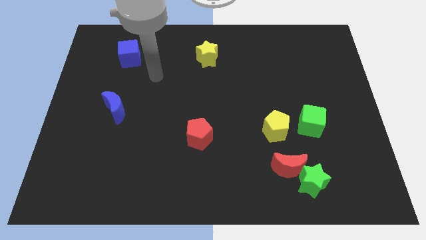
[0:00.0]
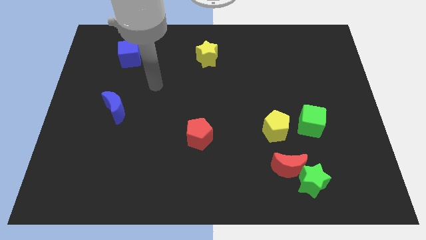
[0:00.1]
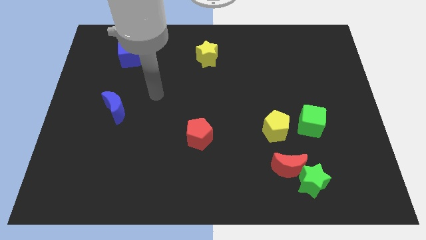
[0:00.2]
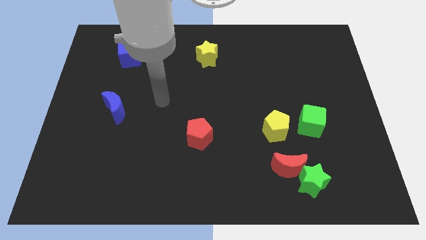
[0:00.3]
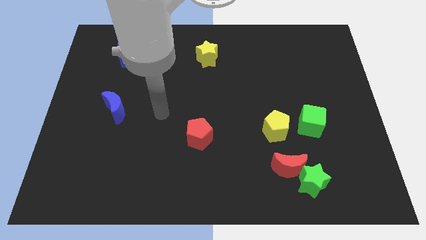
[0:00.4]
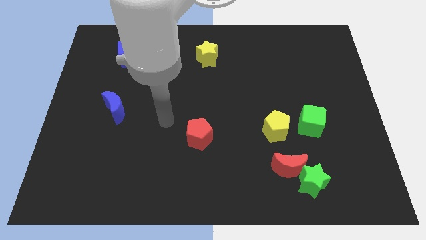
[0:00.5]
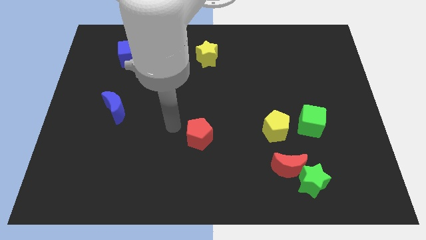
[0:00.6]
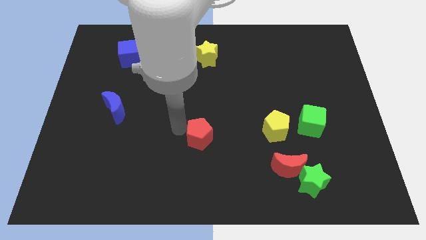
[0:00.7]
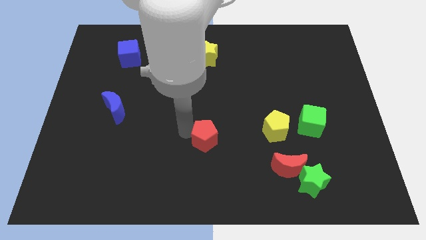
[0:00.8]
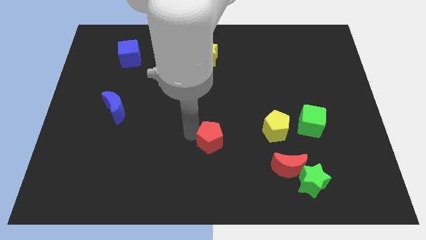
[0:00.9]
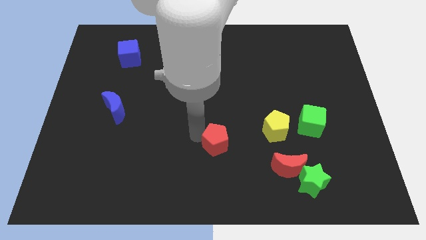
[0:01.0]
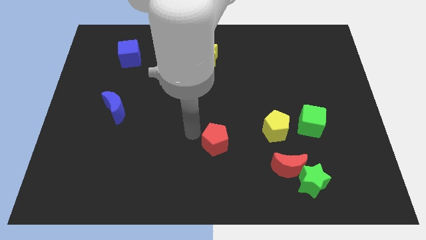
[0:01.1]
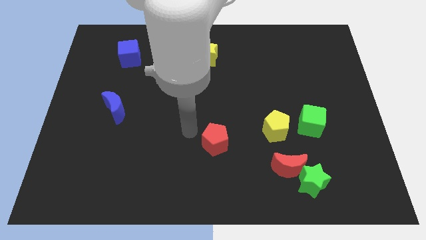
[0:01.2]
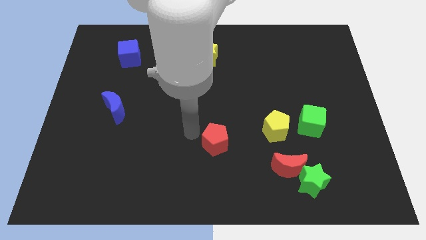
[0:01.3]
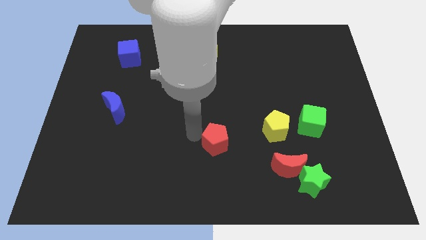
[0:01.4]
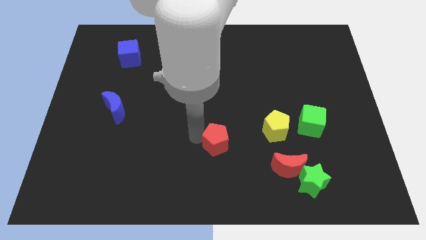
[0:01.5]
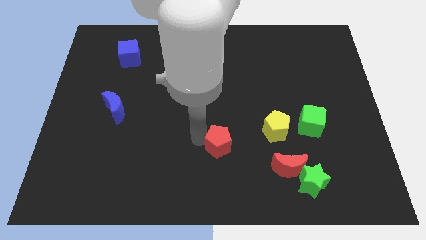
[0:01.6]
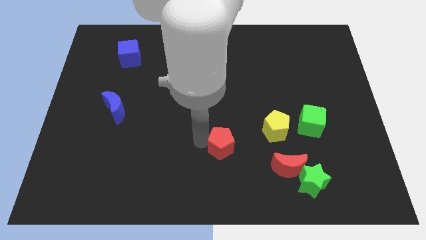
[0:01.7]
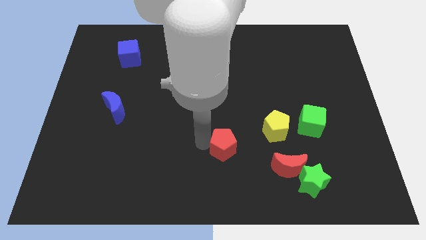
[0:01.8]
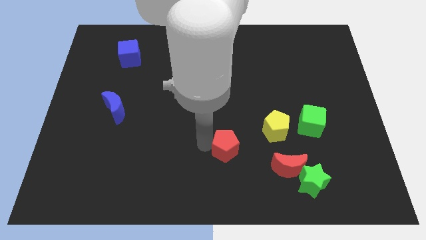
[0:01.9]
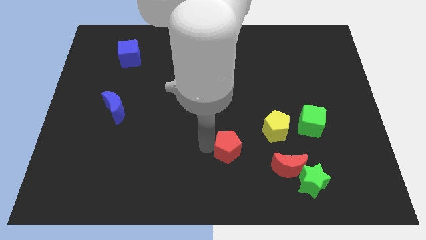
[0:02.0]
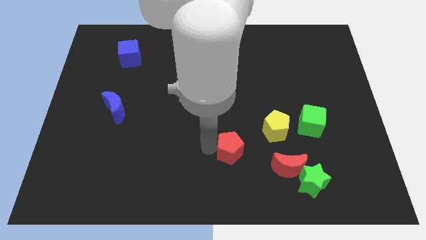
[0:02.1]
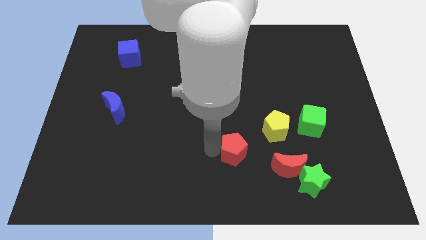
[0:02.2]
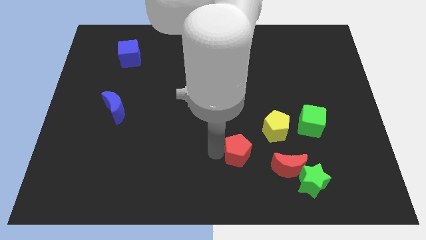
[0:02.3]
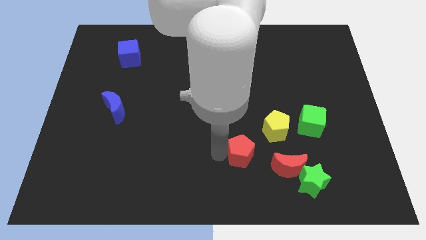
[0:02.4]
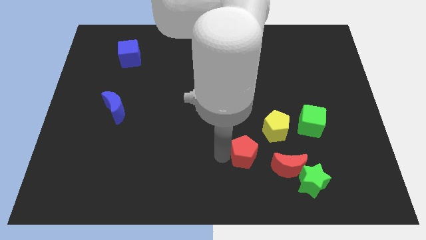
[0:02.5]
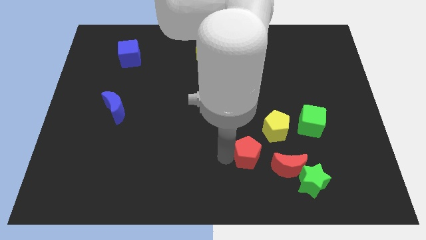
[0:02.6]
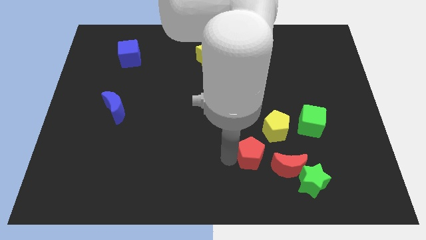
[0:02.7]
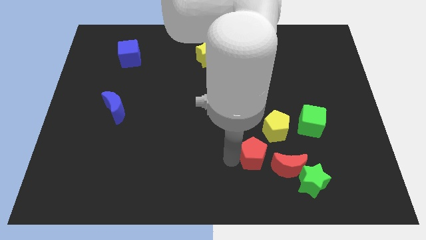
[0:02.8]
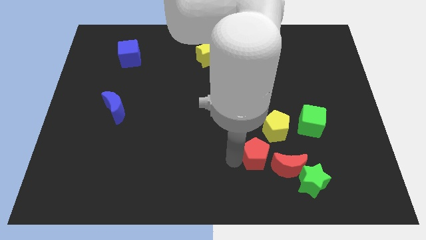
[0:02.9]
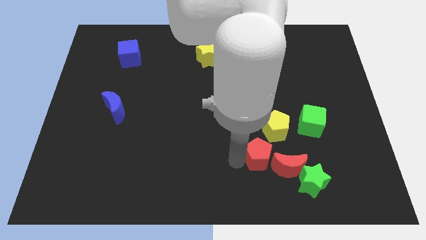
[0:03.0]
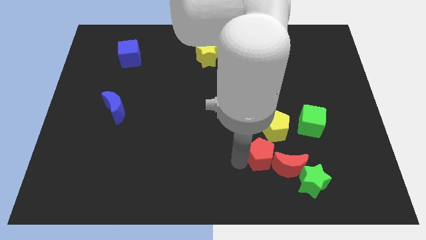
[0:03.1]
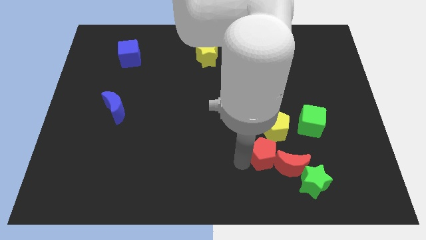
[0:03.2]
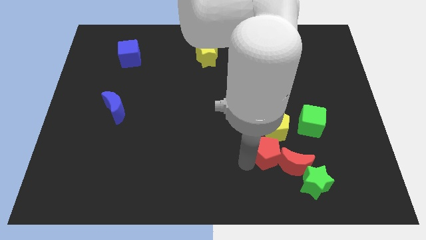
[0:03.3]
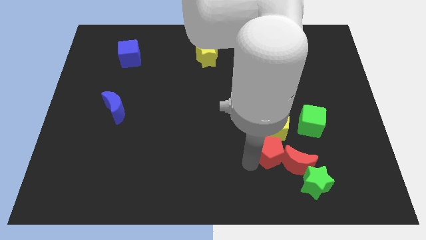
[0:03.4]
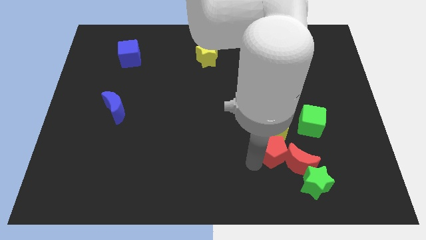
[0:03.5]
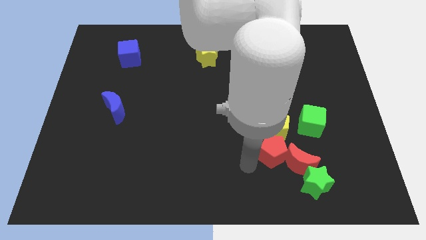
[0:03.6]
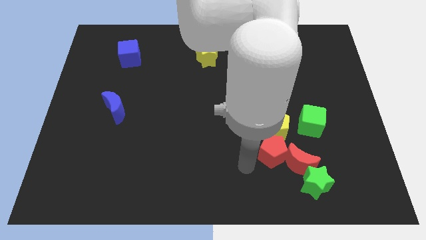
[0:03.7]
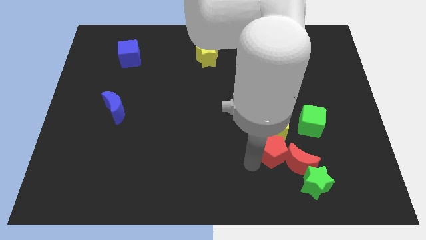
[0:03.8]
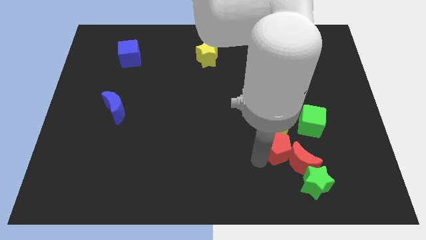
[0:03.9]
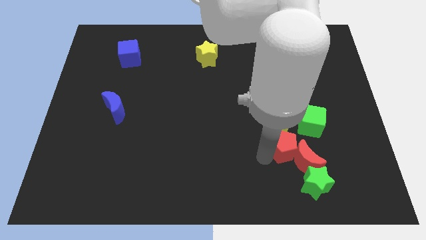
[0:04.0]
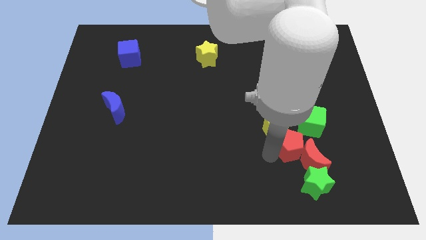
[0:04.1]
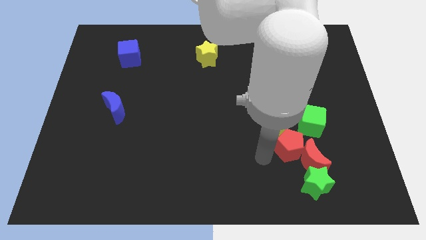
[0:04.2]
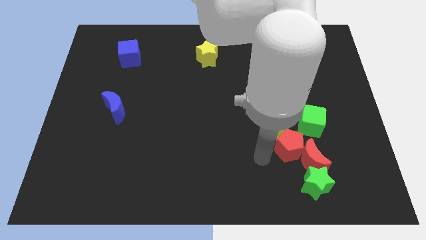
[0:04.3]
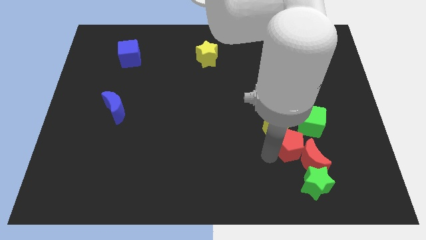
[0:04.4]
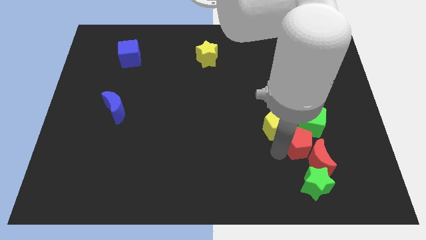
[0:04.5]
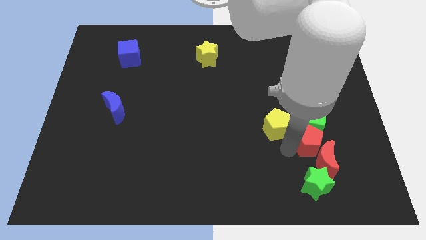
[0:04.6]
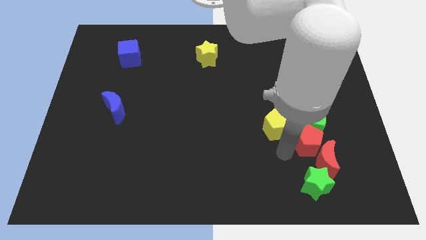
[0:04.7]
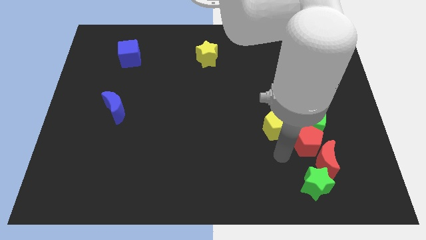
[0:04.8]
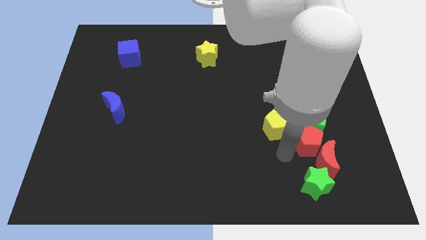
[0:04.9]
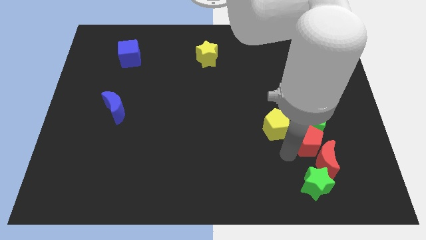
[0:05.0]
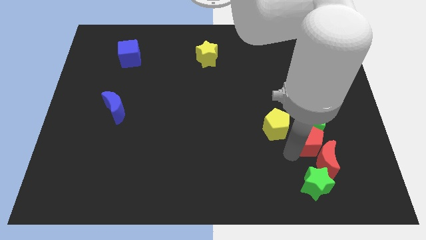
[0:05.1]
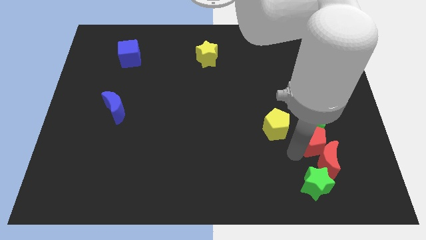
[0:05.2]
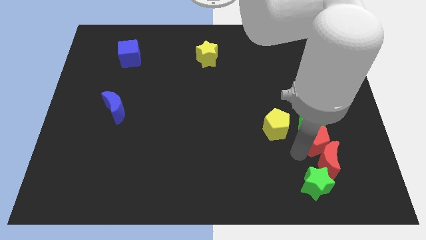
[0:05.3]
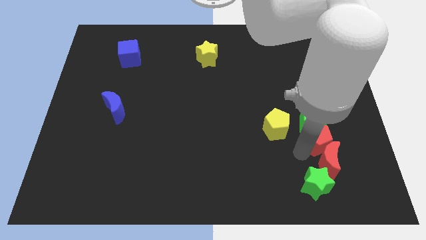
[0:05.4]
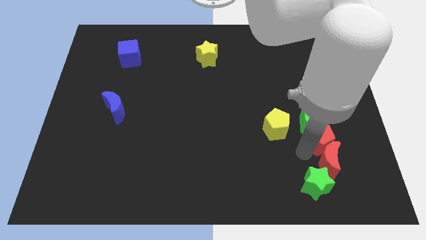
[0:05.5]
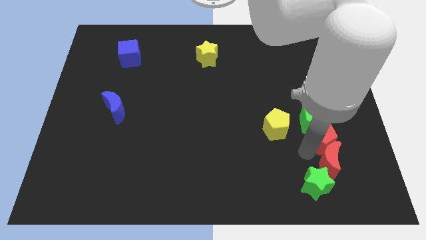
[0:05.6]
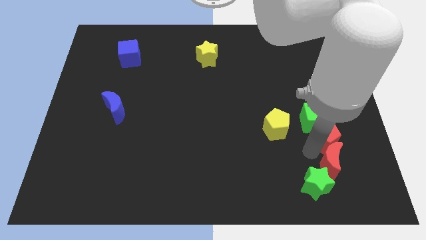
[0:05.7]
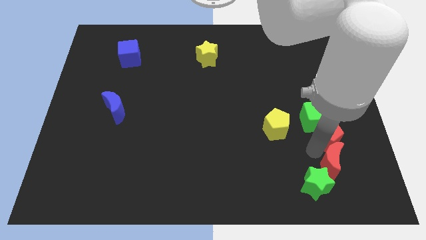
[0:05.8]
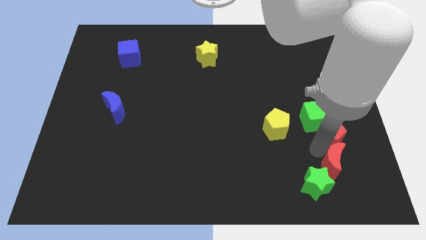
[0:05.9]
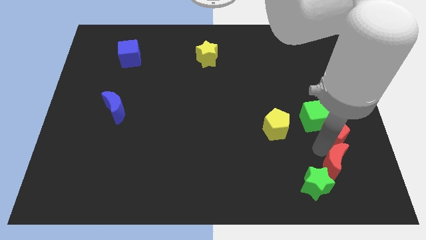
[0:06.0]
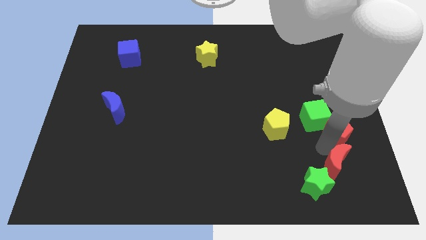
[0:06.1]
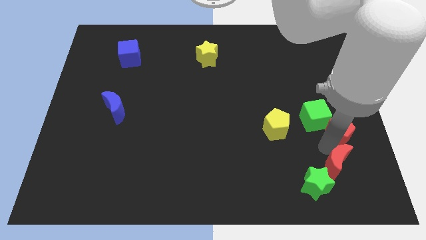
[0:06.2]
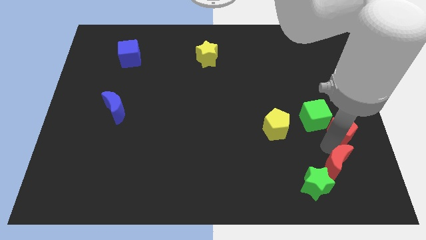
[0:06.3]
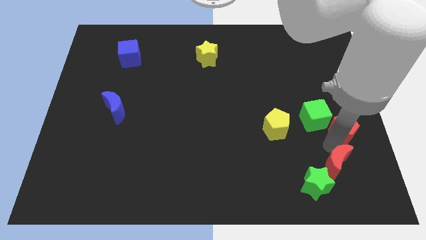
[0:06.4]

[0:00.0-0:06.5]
put the red pentagon to the right side

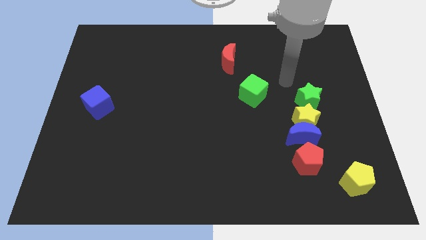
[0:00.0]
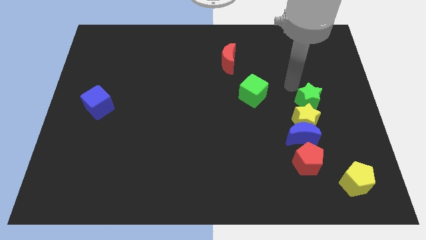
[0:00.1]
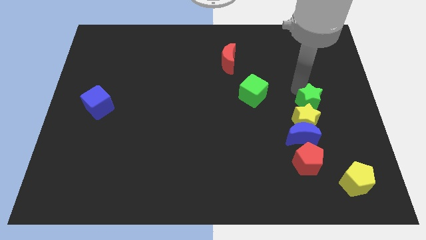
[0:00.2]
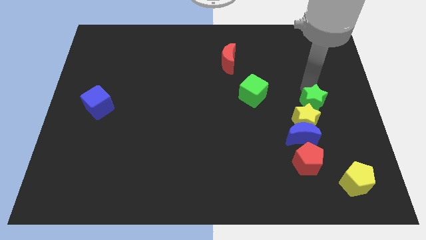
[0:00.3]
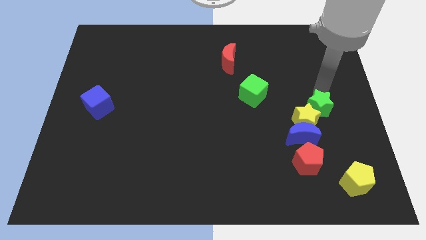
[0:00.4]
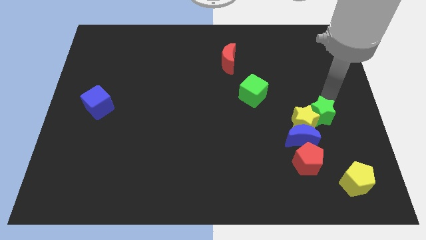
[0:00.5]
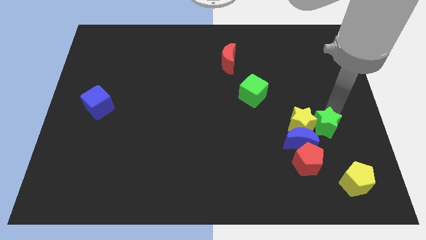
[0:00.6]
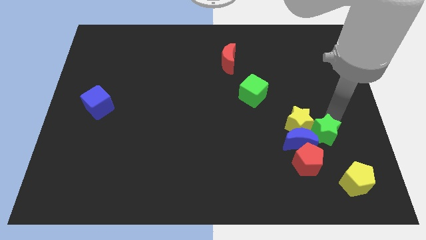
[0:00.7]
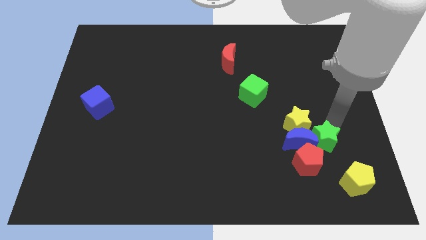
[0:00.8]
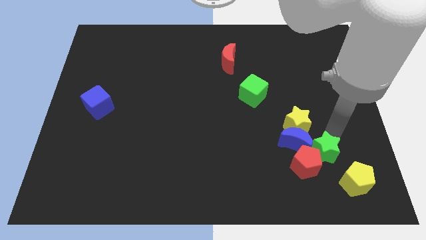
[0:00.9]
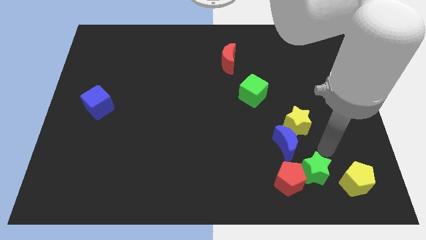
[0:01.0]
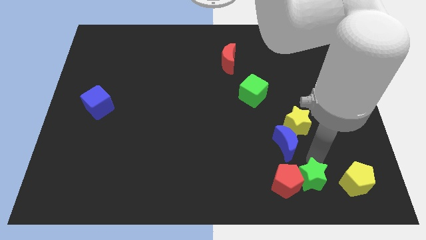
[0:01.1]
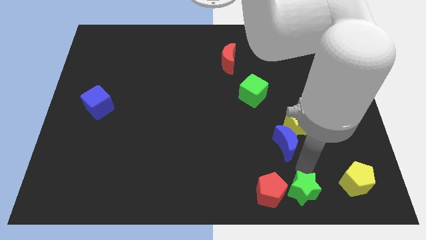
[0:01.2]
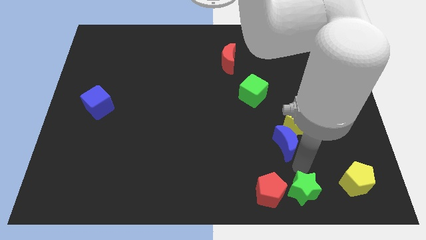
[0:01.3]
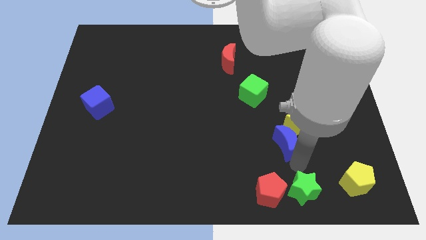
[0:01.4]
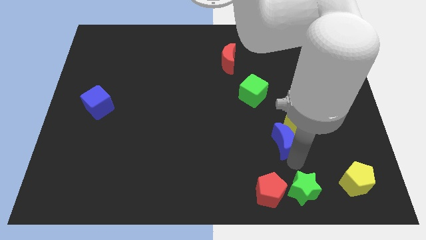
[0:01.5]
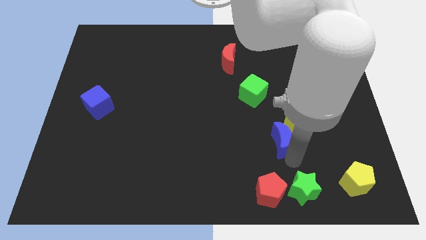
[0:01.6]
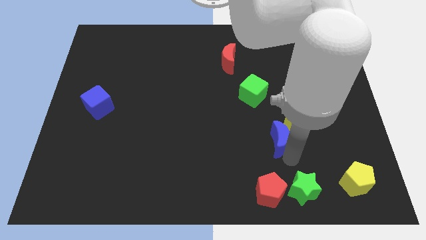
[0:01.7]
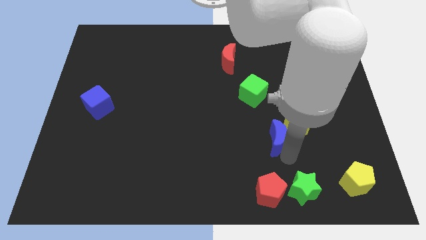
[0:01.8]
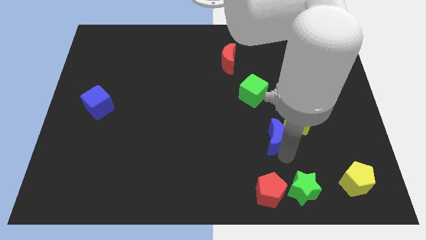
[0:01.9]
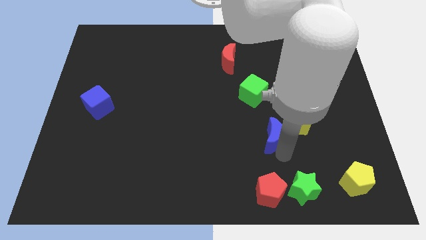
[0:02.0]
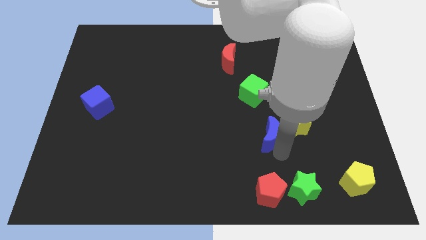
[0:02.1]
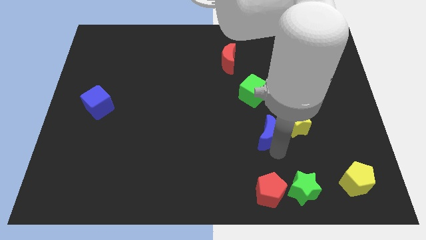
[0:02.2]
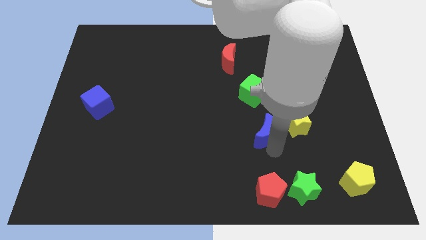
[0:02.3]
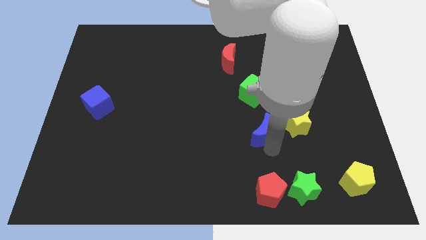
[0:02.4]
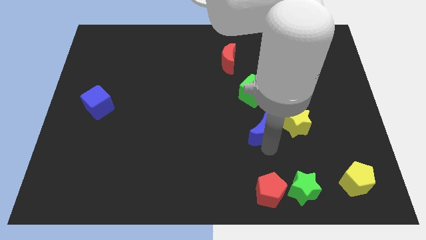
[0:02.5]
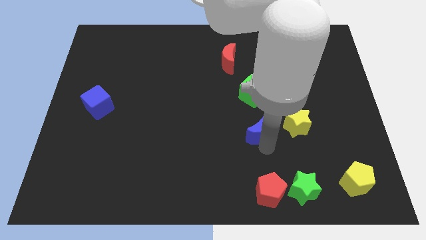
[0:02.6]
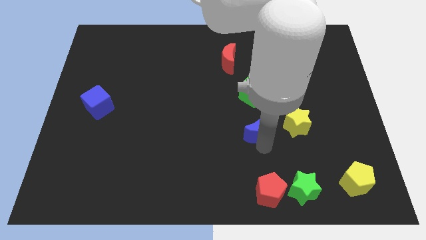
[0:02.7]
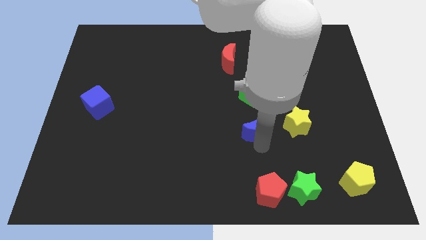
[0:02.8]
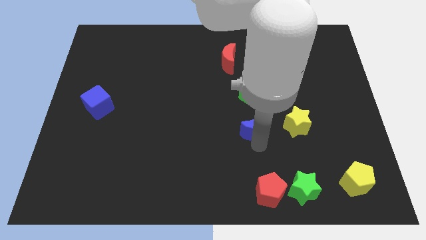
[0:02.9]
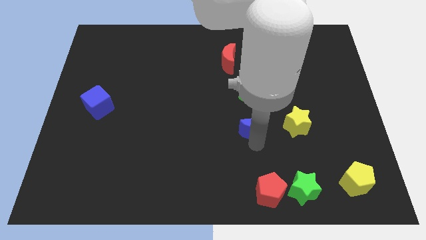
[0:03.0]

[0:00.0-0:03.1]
move the blue moon to the middle
